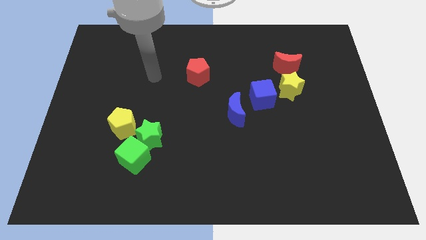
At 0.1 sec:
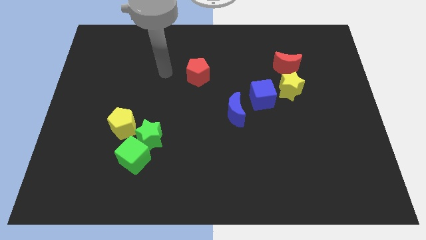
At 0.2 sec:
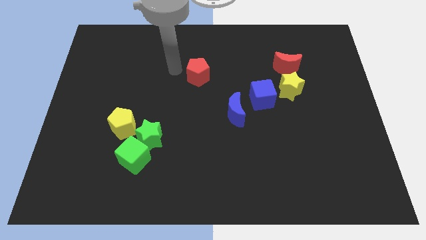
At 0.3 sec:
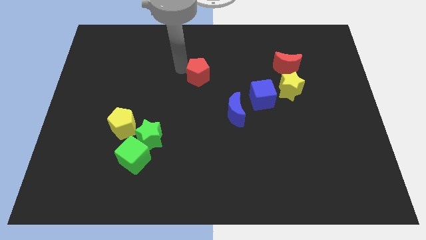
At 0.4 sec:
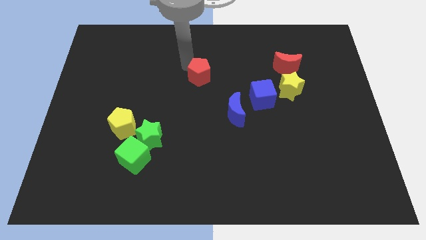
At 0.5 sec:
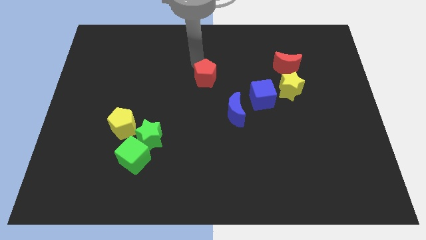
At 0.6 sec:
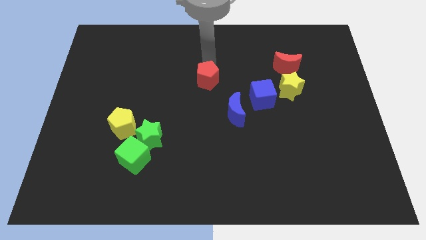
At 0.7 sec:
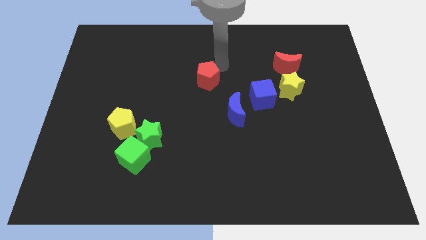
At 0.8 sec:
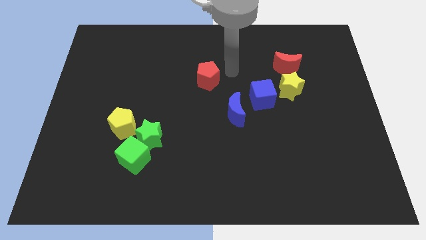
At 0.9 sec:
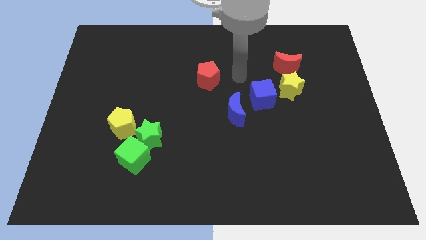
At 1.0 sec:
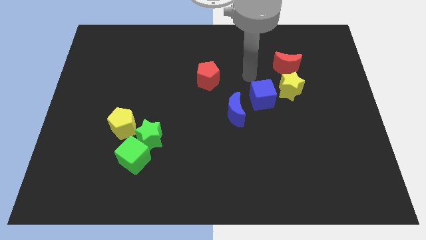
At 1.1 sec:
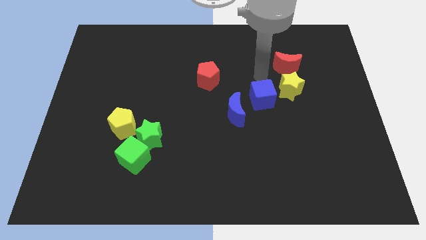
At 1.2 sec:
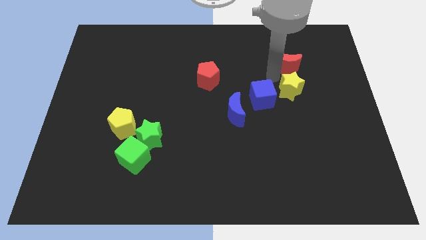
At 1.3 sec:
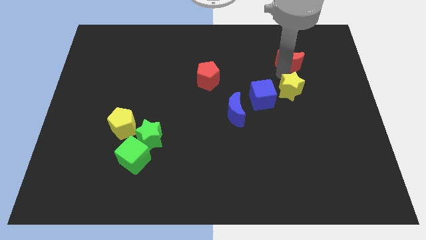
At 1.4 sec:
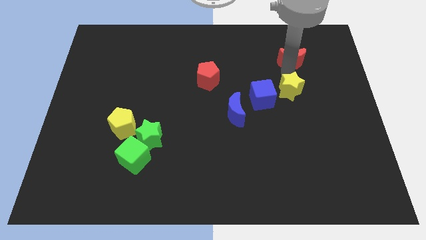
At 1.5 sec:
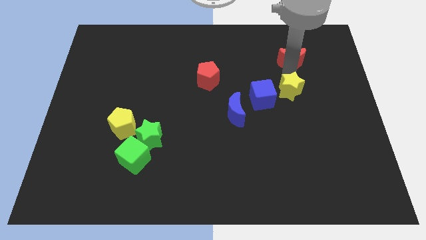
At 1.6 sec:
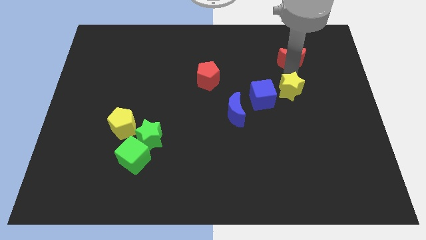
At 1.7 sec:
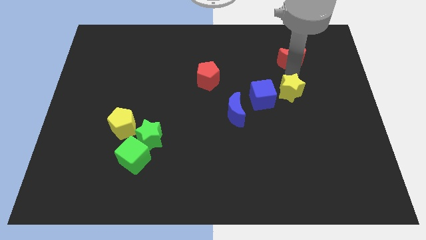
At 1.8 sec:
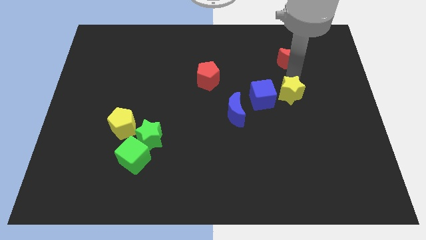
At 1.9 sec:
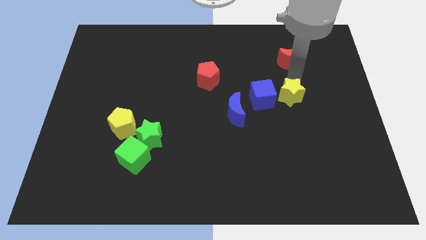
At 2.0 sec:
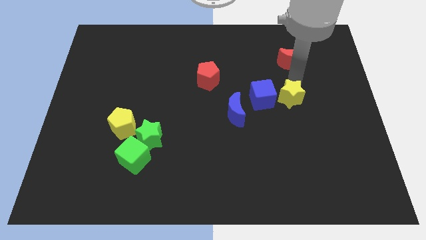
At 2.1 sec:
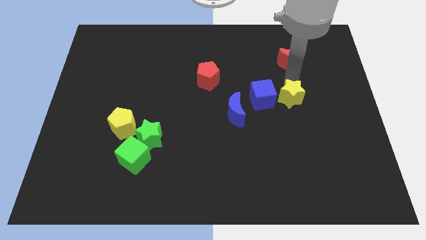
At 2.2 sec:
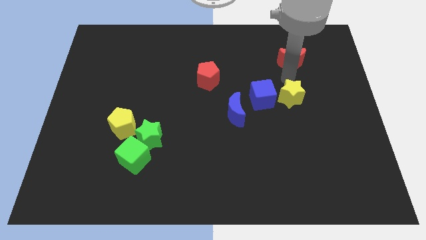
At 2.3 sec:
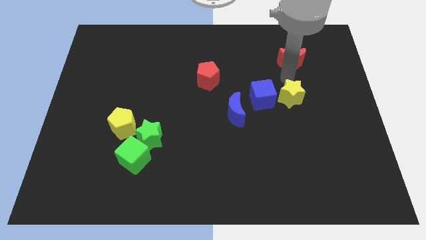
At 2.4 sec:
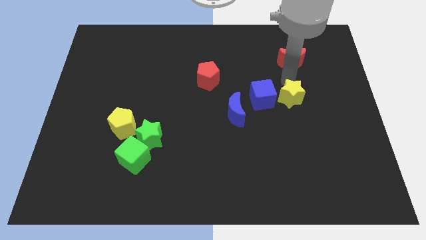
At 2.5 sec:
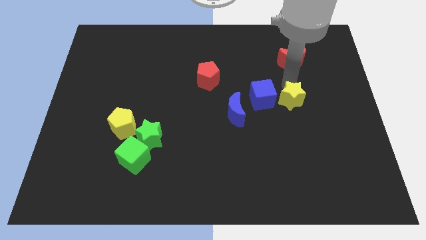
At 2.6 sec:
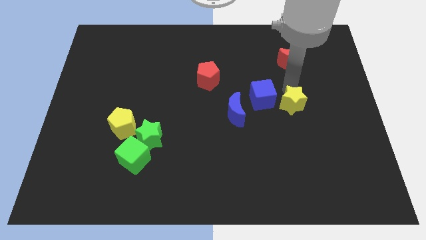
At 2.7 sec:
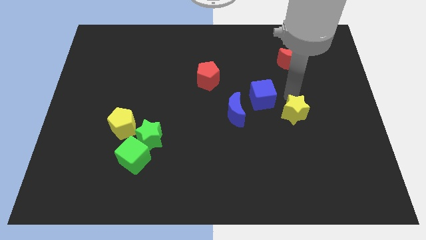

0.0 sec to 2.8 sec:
move the yellow star downwards somewhat

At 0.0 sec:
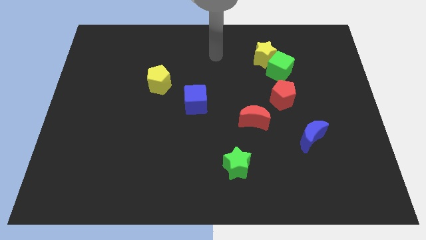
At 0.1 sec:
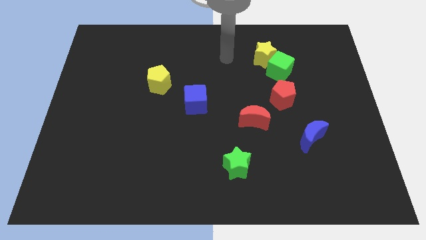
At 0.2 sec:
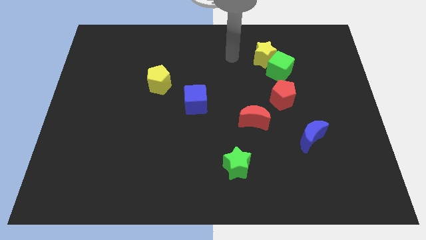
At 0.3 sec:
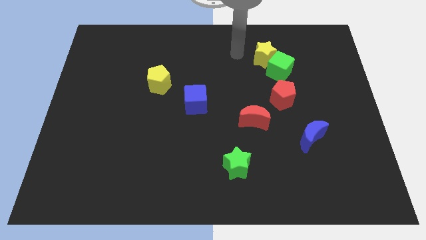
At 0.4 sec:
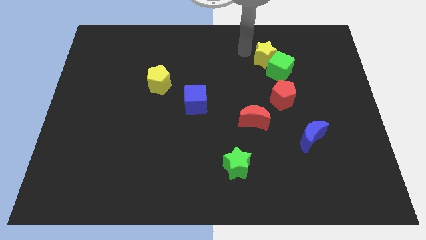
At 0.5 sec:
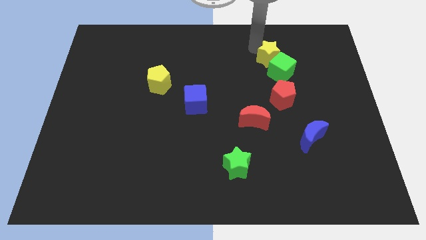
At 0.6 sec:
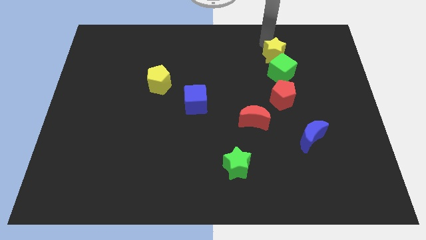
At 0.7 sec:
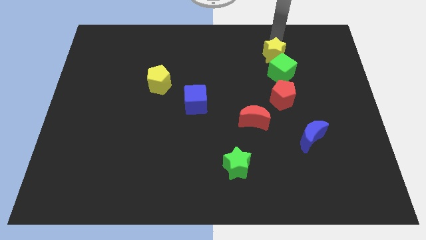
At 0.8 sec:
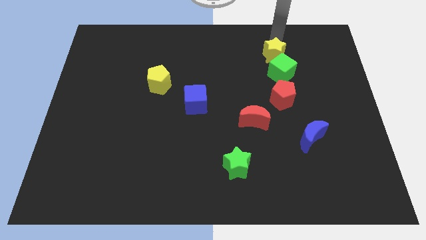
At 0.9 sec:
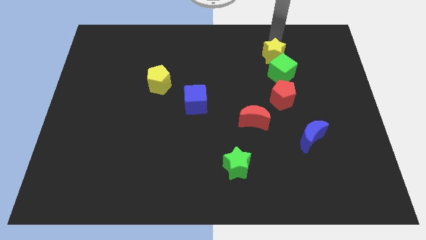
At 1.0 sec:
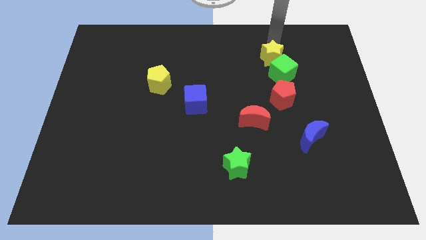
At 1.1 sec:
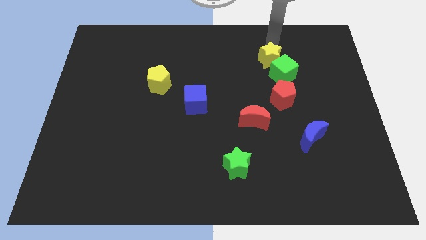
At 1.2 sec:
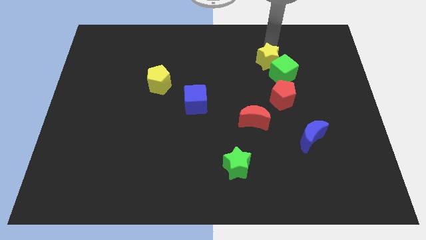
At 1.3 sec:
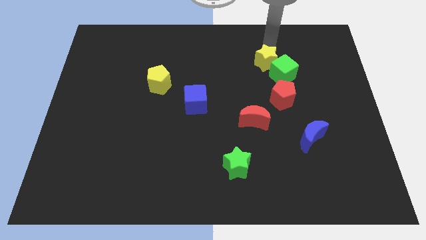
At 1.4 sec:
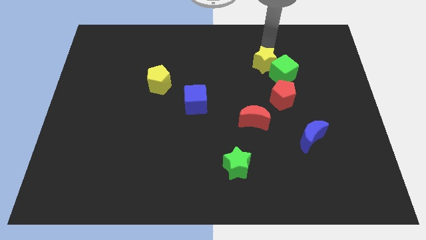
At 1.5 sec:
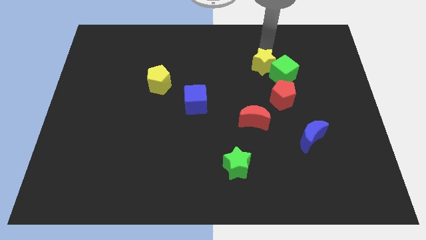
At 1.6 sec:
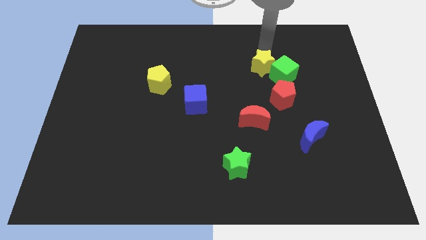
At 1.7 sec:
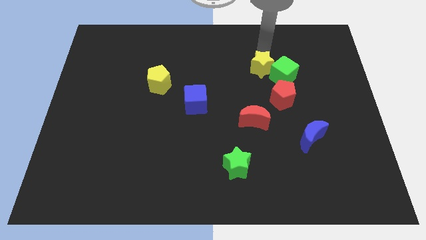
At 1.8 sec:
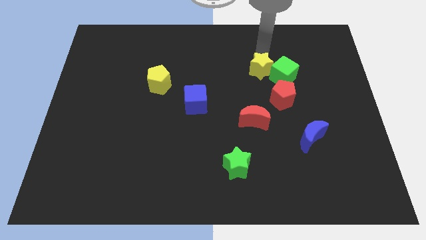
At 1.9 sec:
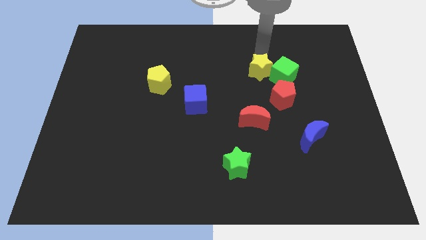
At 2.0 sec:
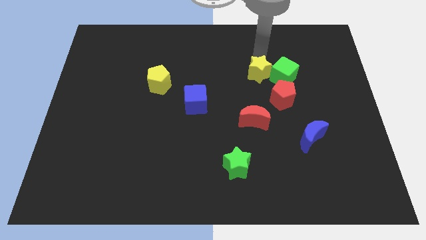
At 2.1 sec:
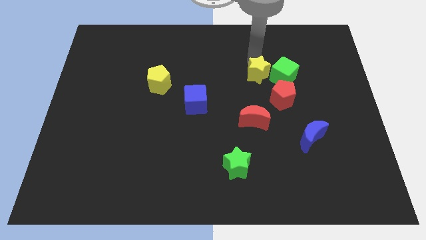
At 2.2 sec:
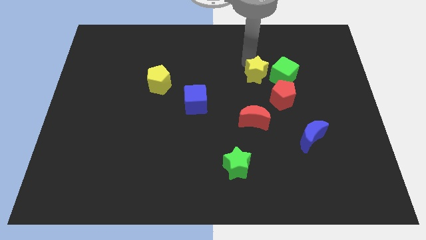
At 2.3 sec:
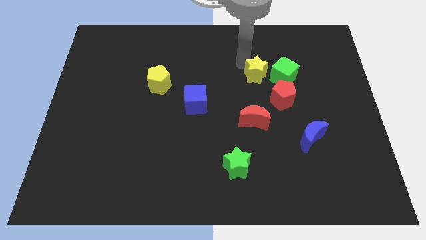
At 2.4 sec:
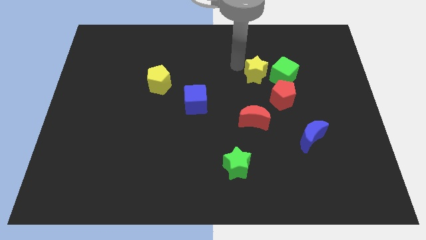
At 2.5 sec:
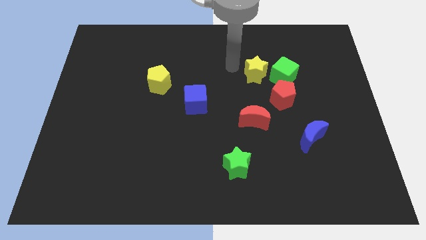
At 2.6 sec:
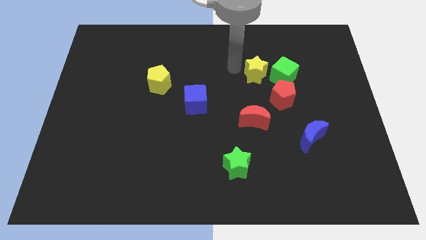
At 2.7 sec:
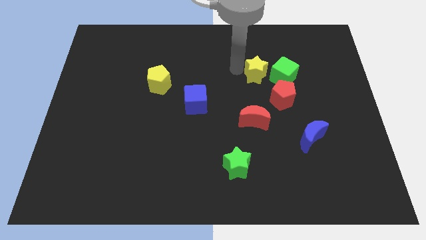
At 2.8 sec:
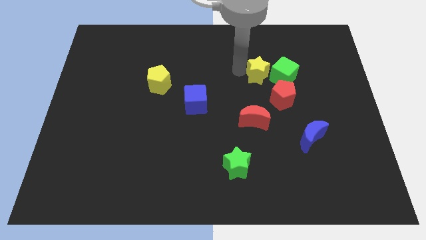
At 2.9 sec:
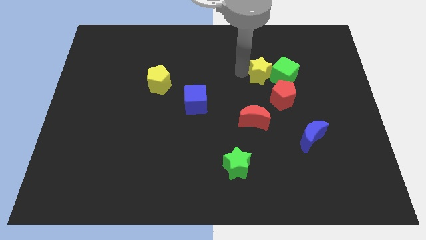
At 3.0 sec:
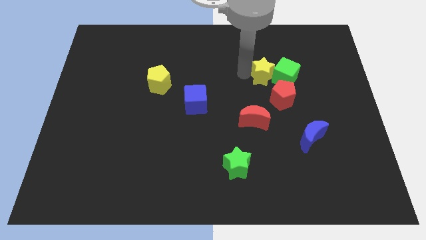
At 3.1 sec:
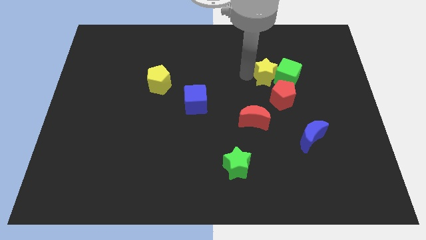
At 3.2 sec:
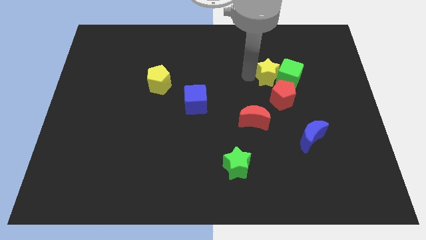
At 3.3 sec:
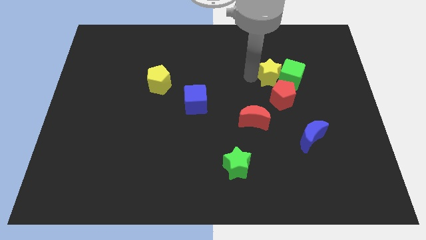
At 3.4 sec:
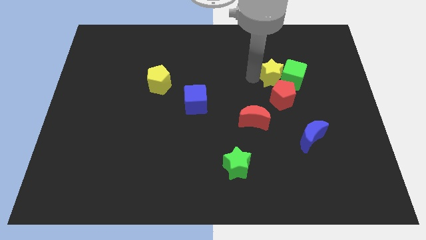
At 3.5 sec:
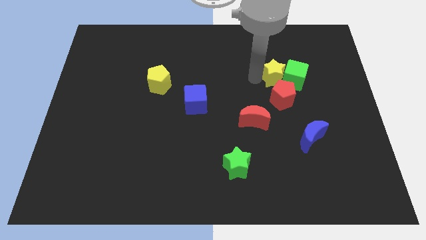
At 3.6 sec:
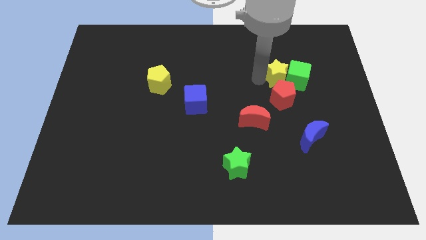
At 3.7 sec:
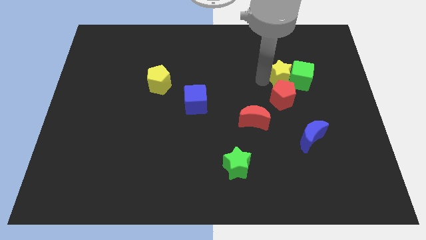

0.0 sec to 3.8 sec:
push the yellow star diagonally down and right a little bit

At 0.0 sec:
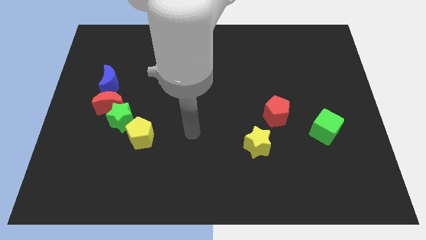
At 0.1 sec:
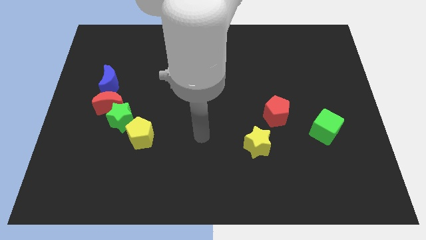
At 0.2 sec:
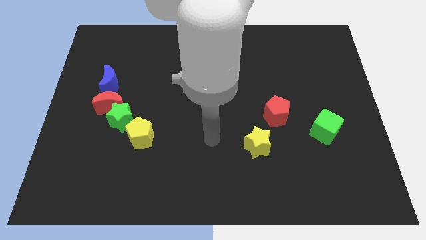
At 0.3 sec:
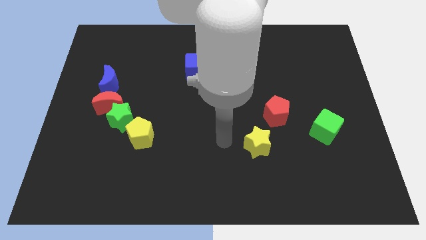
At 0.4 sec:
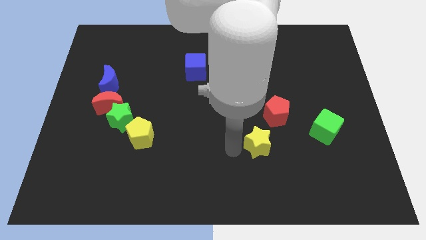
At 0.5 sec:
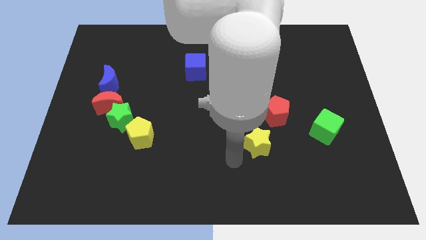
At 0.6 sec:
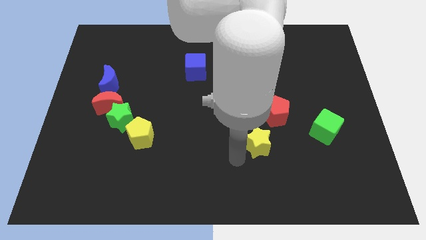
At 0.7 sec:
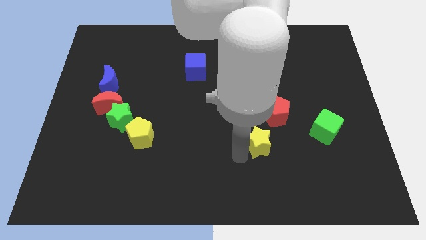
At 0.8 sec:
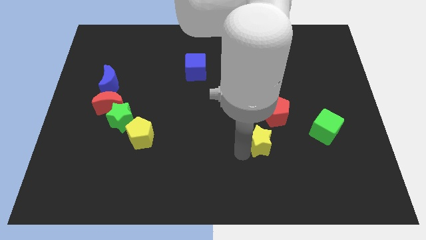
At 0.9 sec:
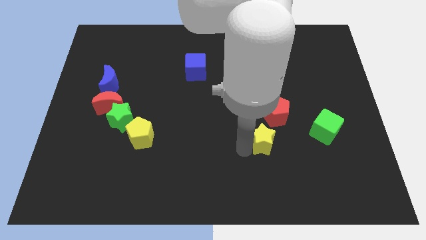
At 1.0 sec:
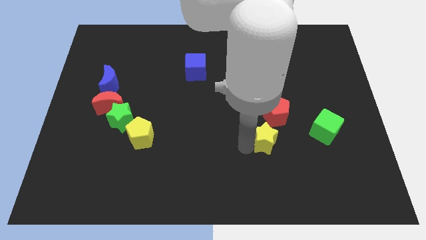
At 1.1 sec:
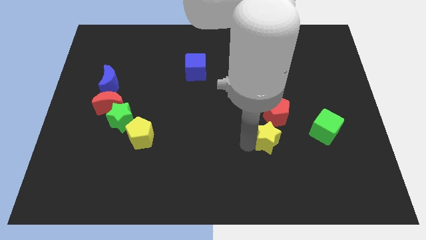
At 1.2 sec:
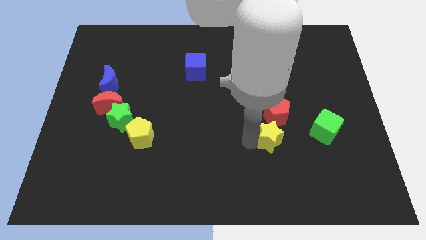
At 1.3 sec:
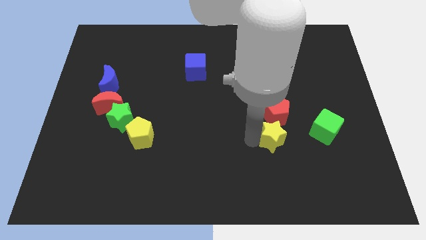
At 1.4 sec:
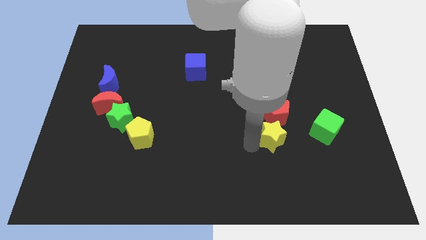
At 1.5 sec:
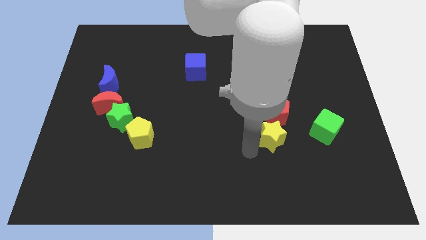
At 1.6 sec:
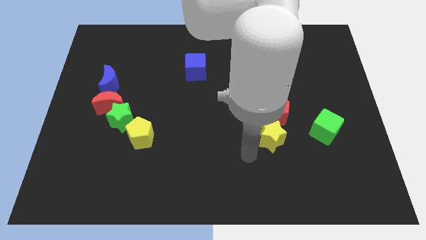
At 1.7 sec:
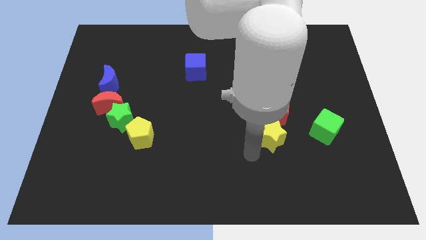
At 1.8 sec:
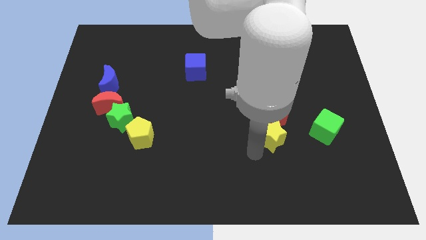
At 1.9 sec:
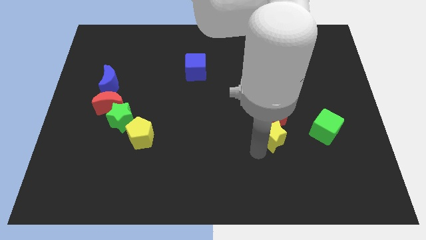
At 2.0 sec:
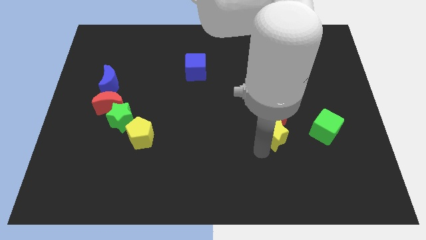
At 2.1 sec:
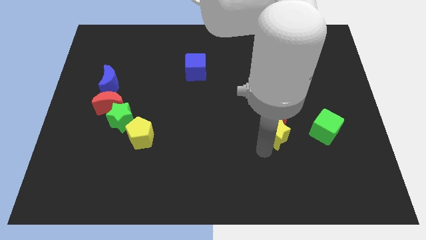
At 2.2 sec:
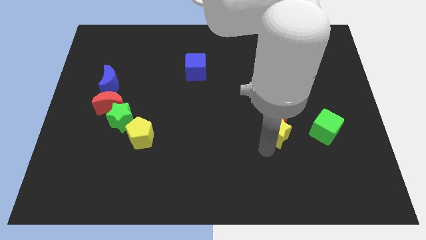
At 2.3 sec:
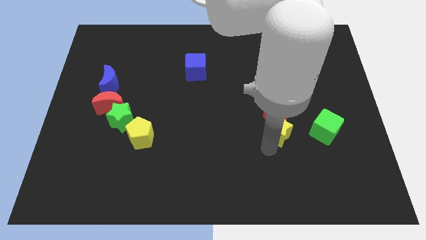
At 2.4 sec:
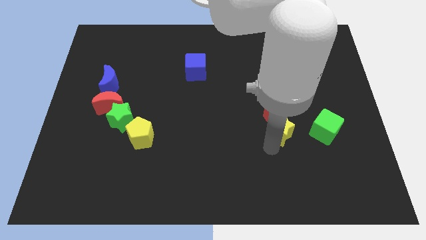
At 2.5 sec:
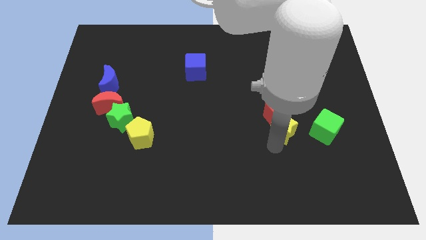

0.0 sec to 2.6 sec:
push the yellow star diagonally up and to the right somewhat
